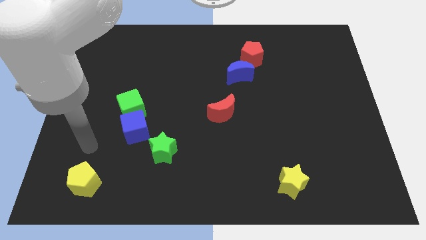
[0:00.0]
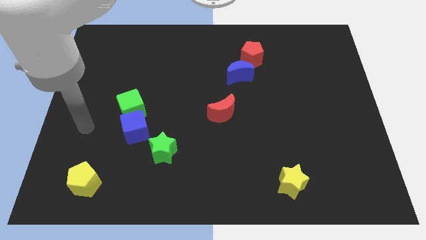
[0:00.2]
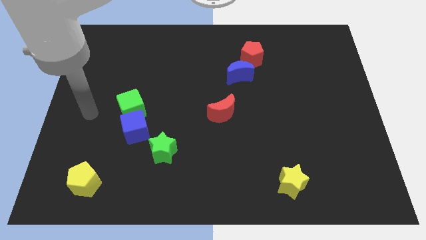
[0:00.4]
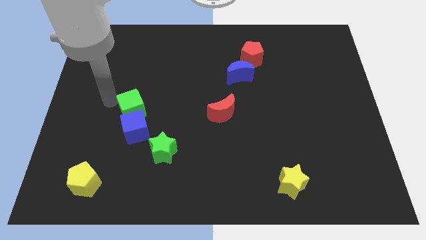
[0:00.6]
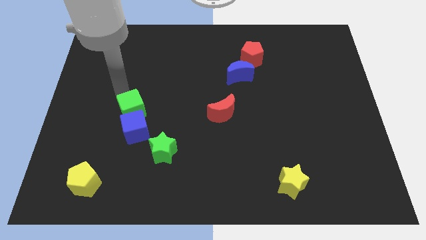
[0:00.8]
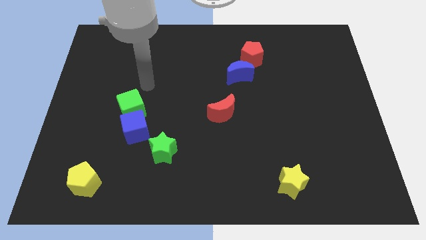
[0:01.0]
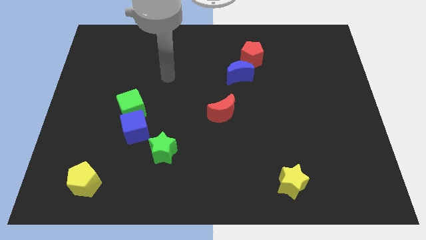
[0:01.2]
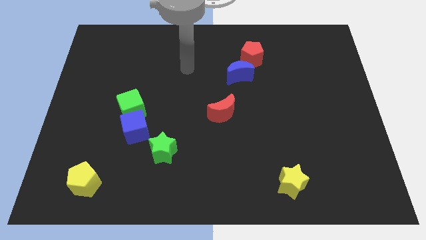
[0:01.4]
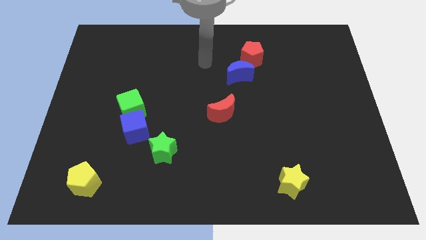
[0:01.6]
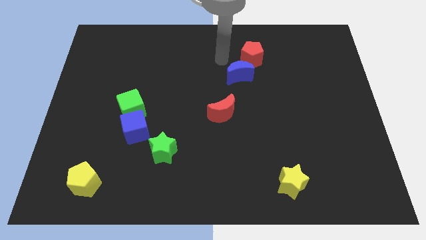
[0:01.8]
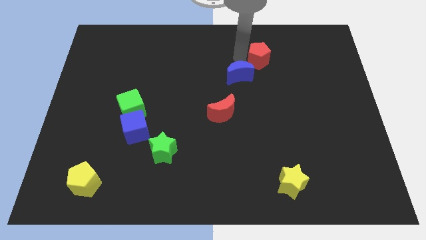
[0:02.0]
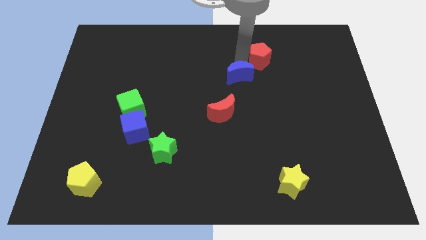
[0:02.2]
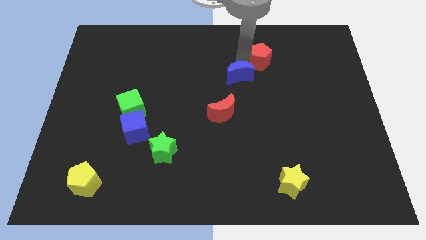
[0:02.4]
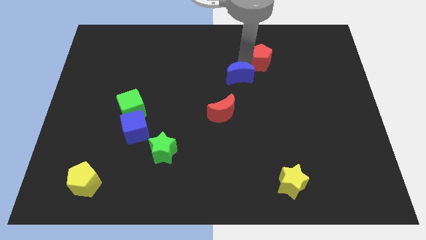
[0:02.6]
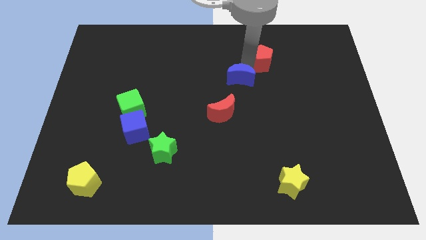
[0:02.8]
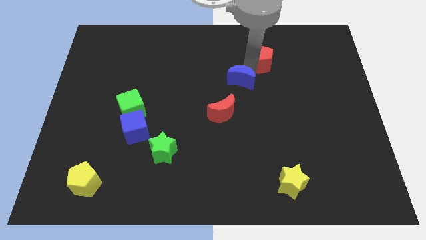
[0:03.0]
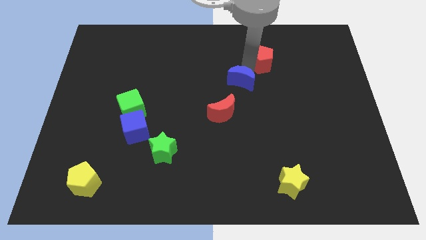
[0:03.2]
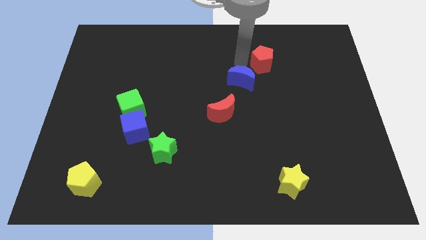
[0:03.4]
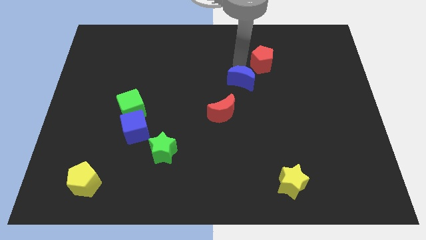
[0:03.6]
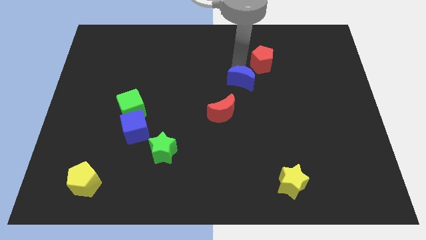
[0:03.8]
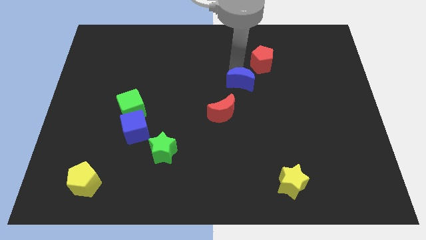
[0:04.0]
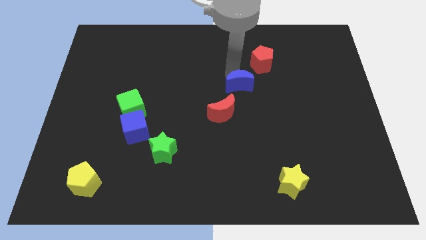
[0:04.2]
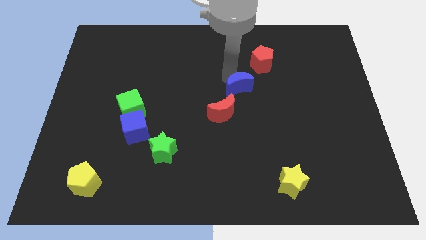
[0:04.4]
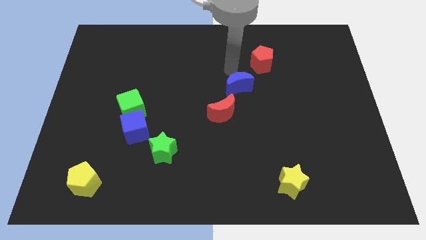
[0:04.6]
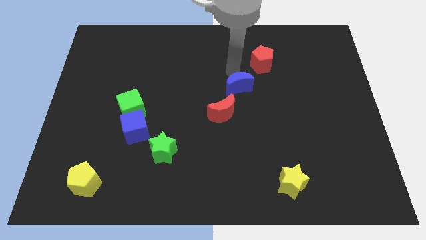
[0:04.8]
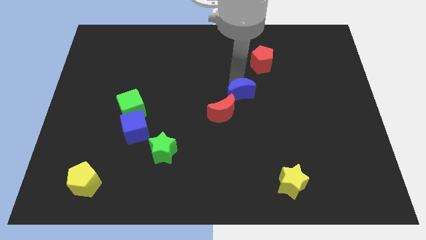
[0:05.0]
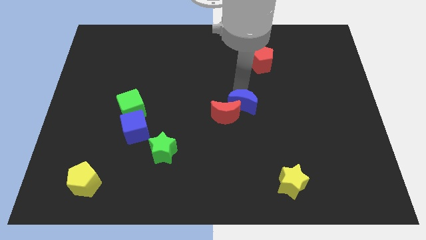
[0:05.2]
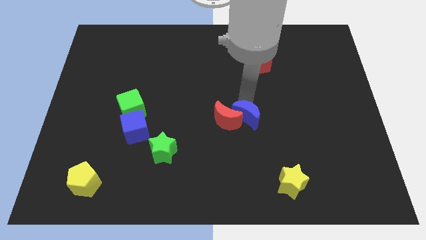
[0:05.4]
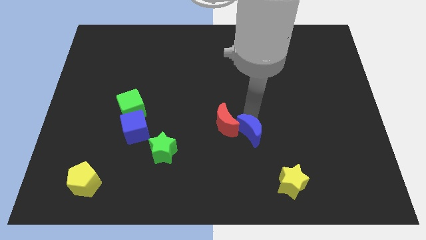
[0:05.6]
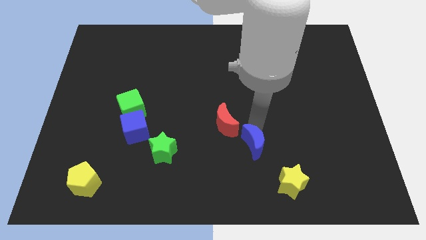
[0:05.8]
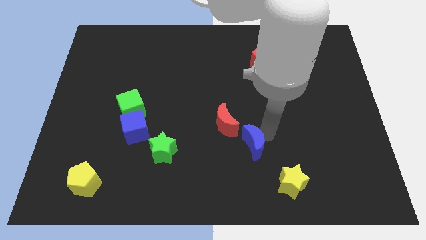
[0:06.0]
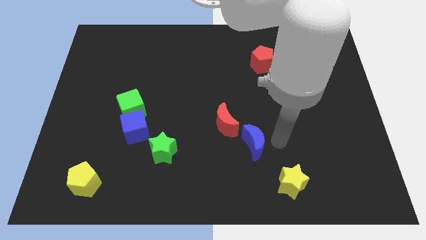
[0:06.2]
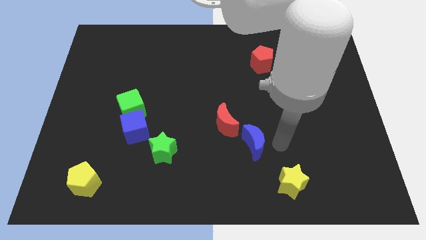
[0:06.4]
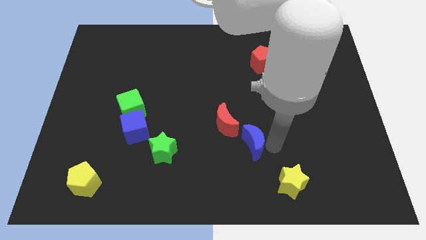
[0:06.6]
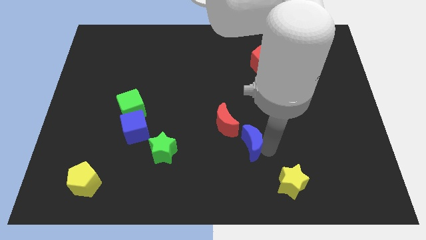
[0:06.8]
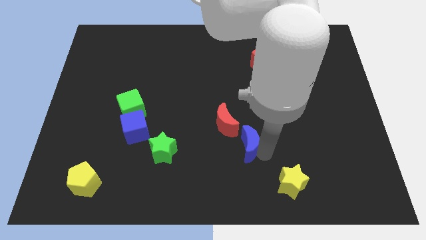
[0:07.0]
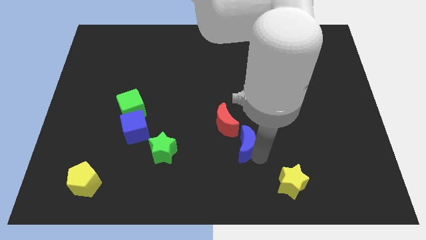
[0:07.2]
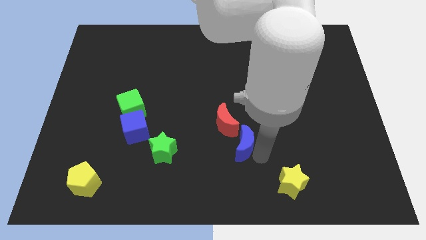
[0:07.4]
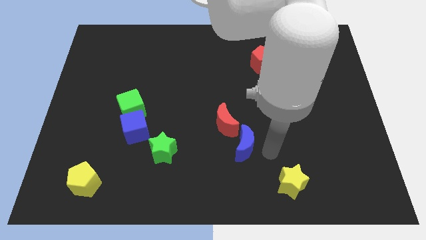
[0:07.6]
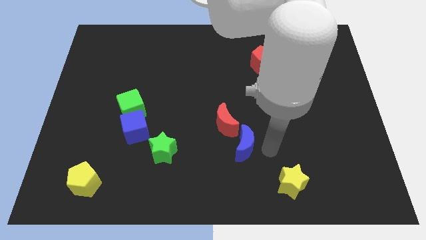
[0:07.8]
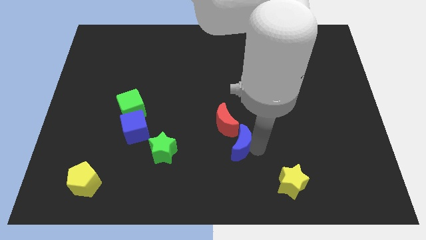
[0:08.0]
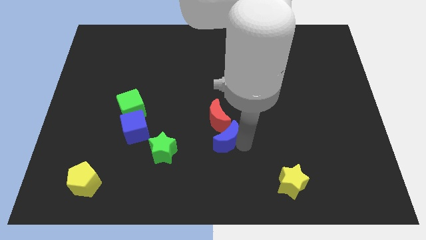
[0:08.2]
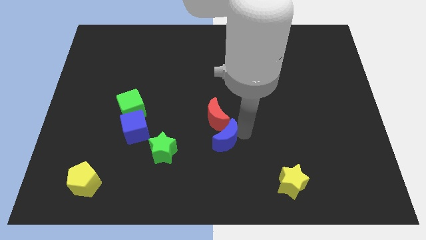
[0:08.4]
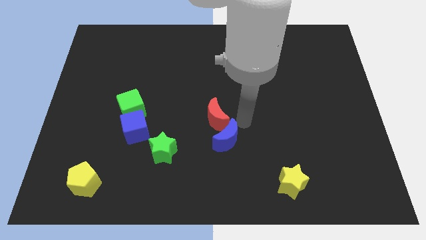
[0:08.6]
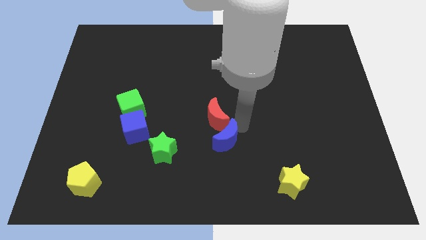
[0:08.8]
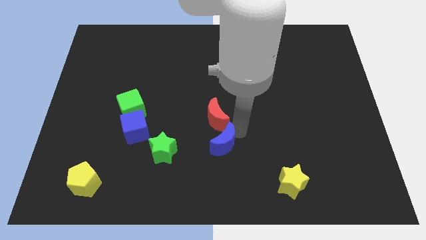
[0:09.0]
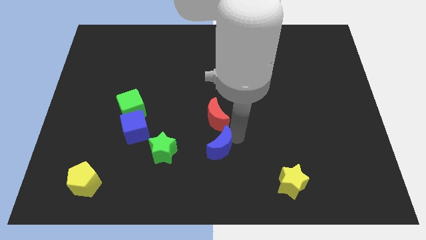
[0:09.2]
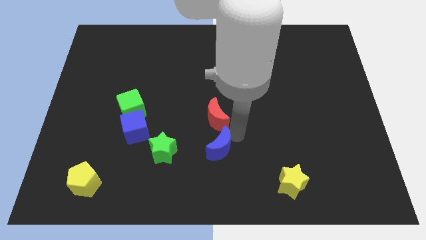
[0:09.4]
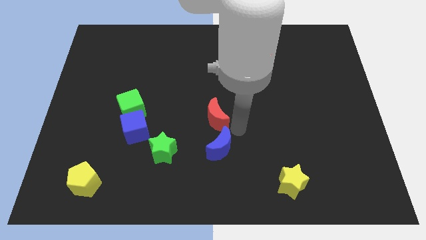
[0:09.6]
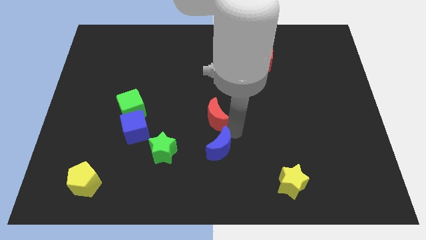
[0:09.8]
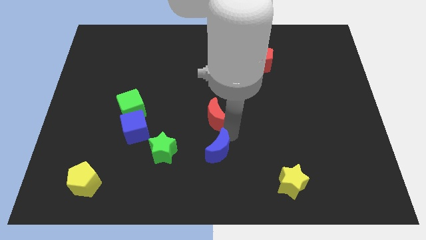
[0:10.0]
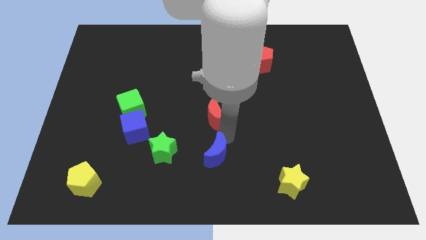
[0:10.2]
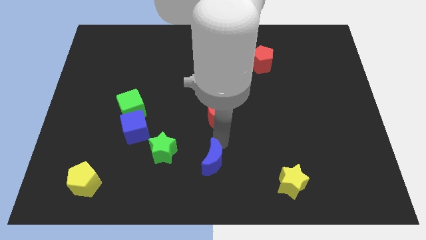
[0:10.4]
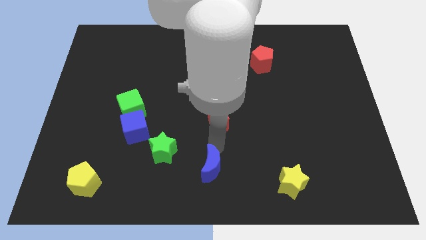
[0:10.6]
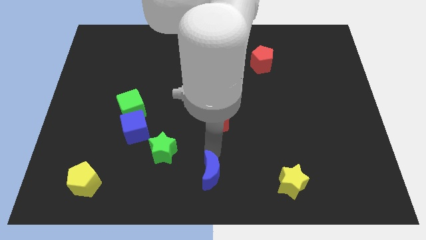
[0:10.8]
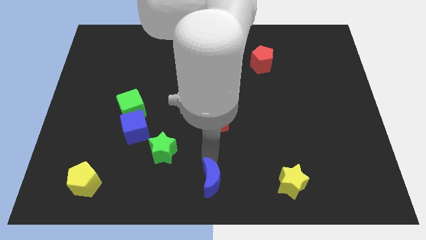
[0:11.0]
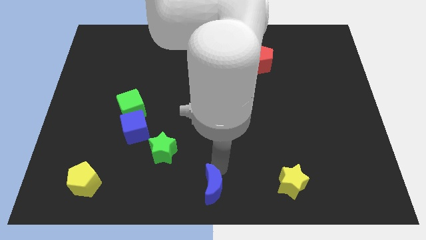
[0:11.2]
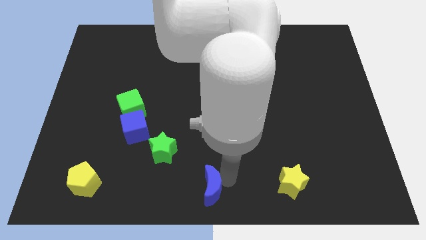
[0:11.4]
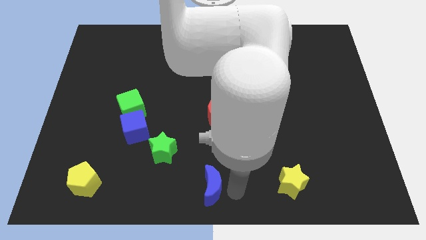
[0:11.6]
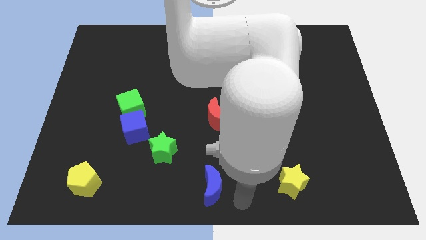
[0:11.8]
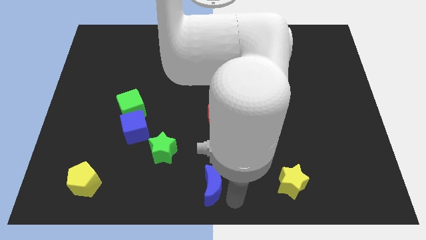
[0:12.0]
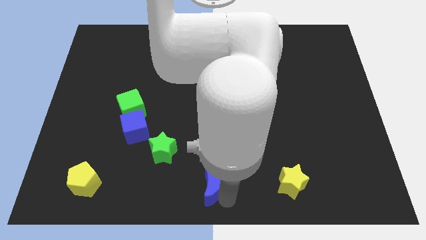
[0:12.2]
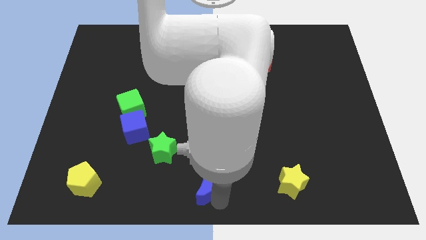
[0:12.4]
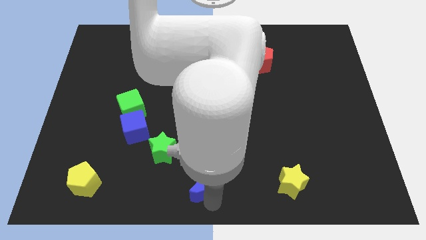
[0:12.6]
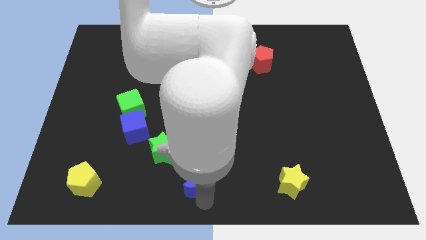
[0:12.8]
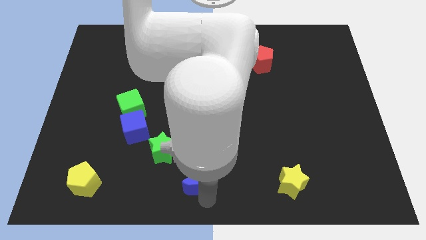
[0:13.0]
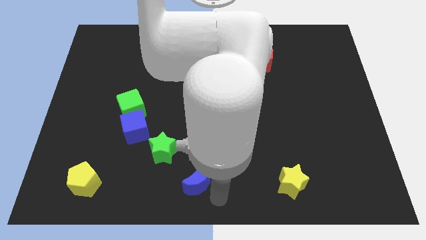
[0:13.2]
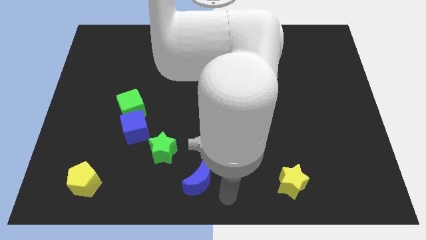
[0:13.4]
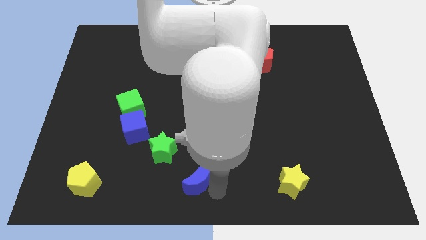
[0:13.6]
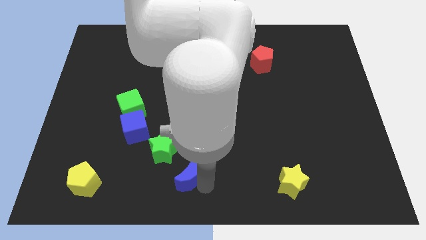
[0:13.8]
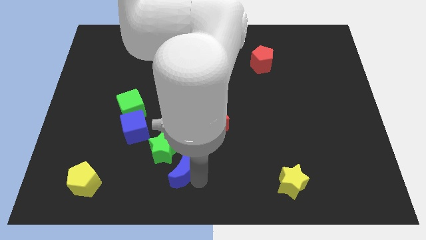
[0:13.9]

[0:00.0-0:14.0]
move the blue moon downwards and then left

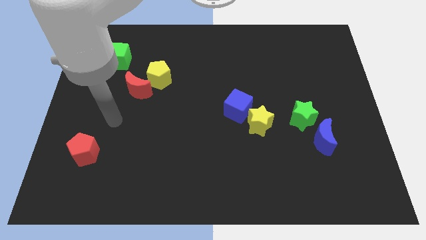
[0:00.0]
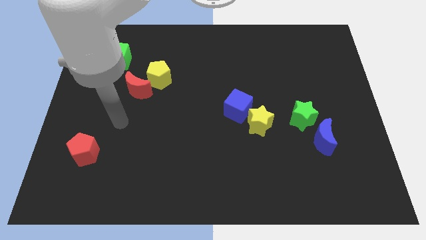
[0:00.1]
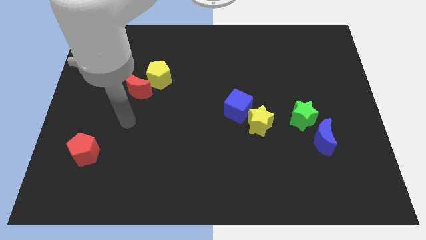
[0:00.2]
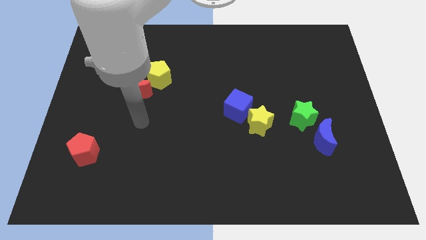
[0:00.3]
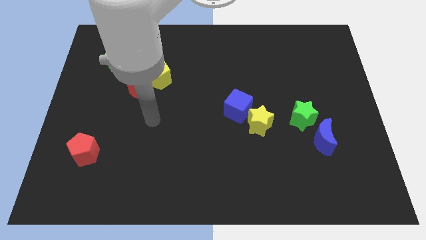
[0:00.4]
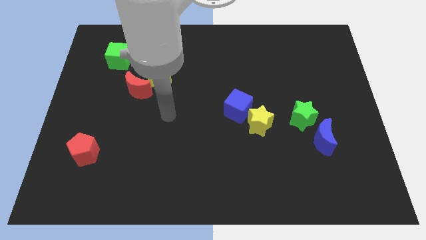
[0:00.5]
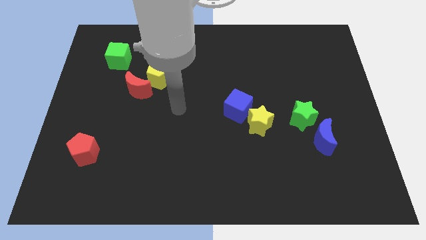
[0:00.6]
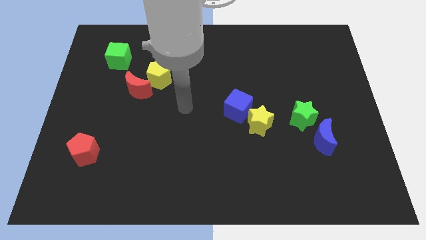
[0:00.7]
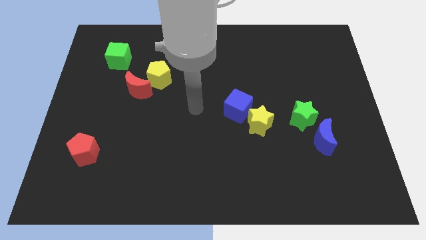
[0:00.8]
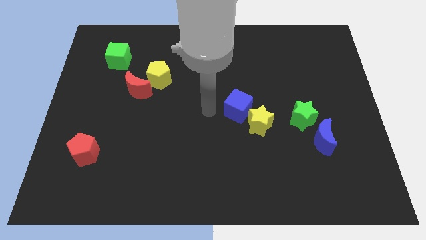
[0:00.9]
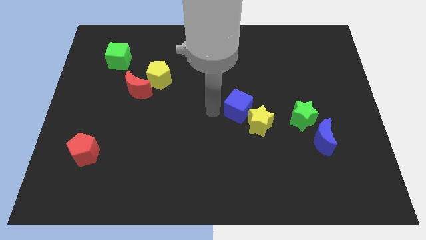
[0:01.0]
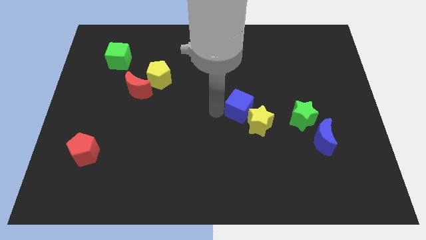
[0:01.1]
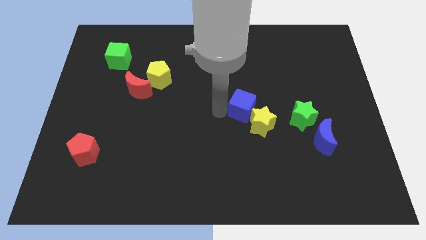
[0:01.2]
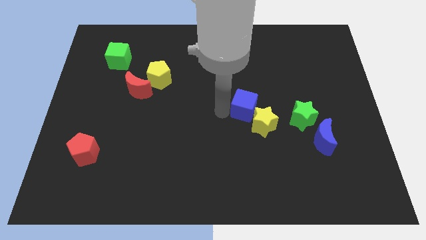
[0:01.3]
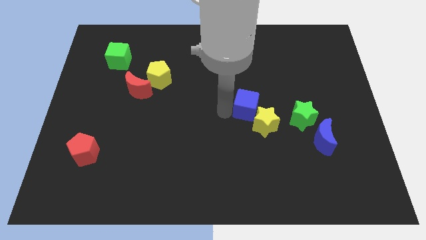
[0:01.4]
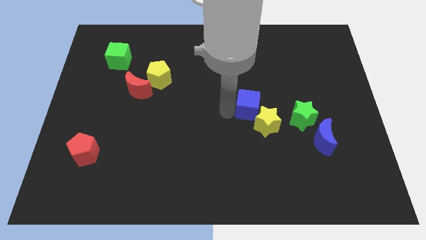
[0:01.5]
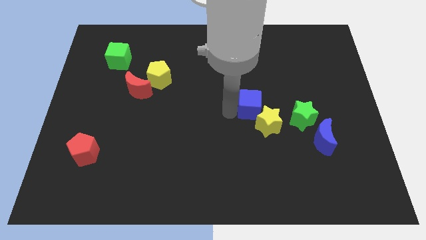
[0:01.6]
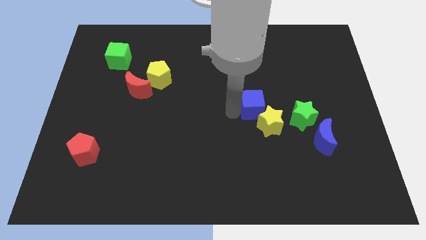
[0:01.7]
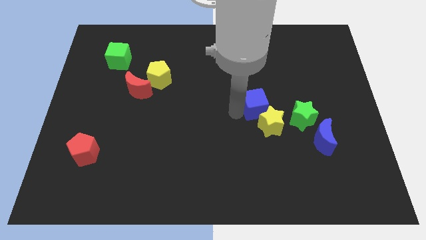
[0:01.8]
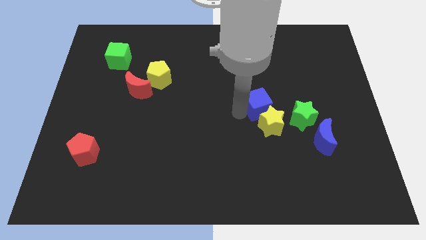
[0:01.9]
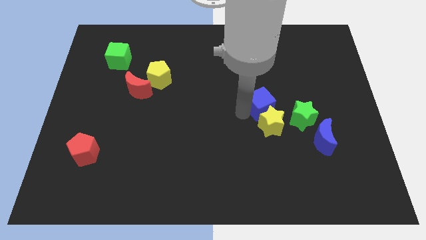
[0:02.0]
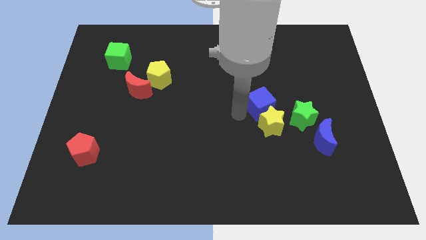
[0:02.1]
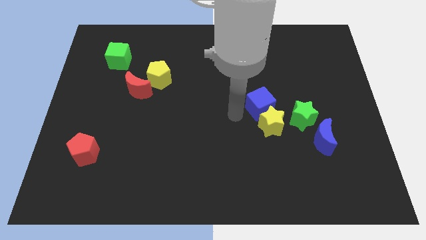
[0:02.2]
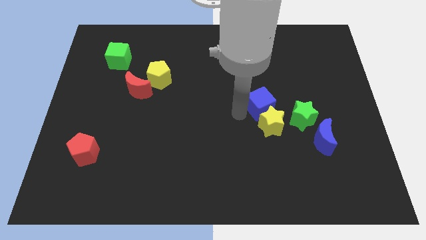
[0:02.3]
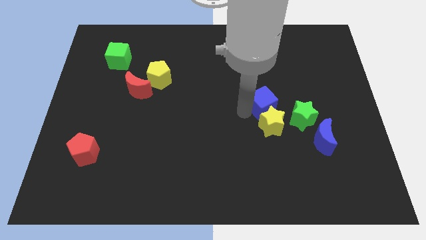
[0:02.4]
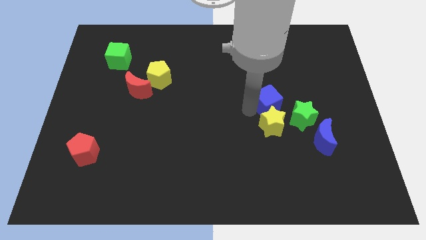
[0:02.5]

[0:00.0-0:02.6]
slightly move the blue cube to the right
